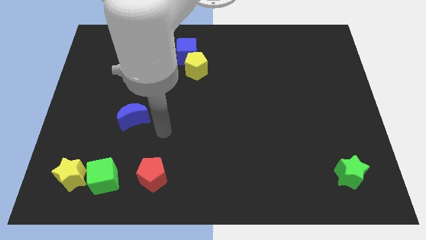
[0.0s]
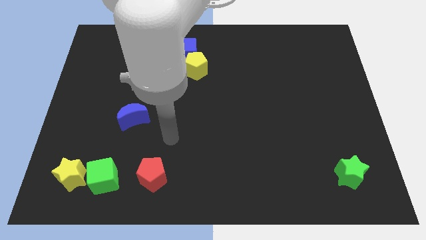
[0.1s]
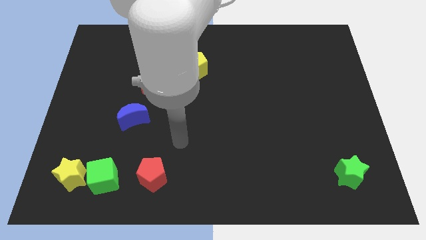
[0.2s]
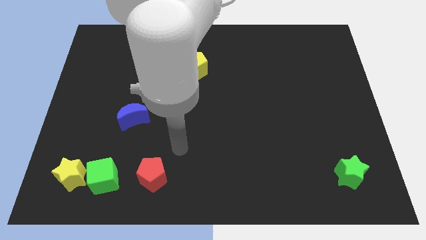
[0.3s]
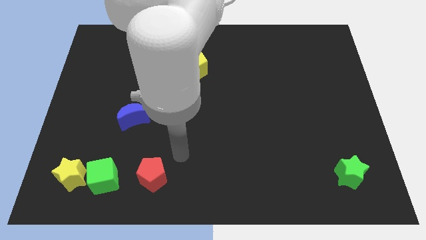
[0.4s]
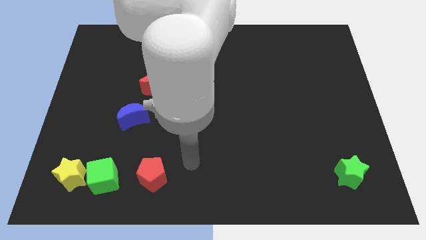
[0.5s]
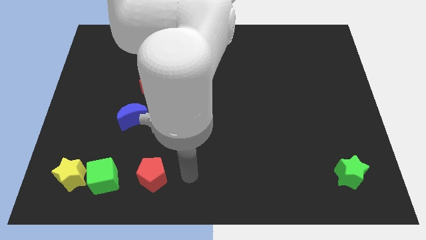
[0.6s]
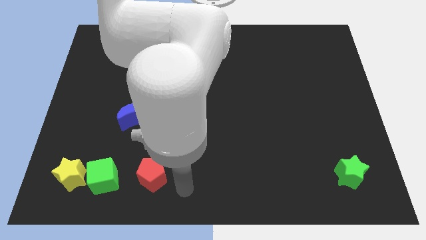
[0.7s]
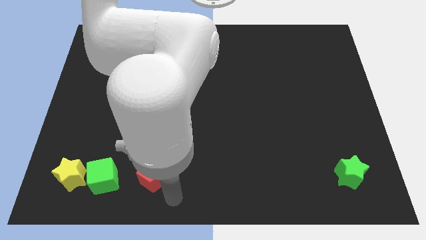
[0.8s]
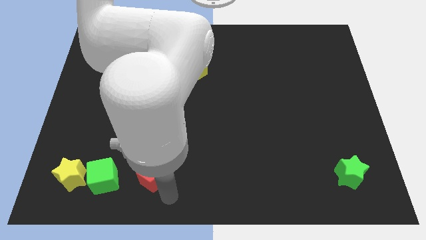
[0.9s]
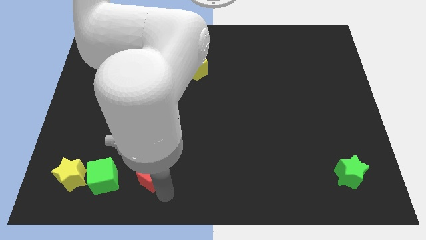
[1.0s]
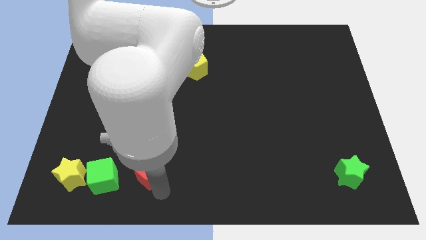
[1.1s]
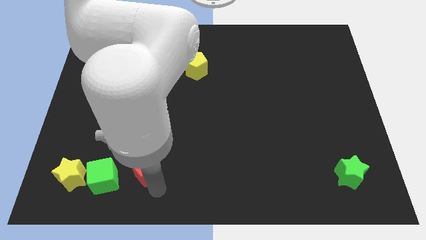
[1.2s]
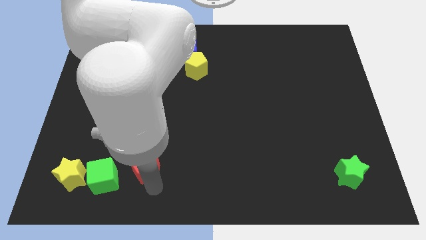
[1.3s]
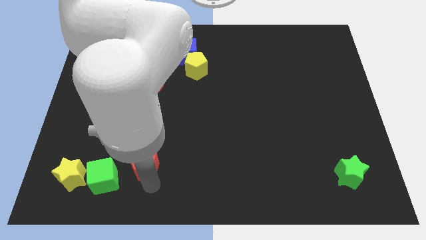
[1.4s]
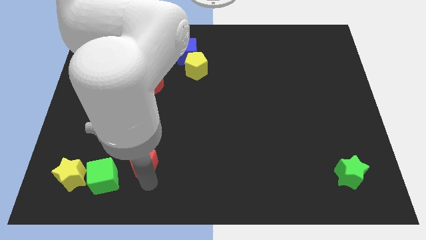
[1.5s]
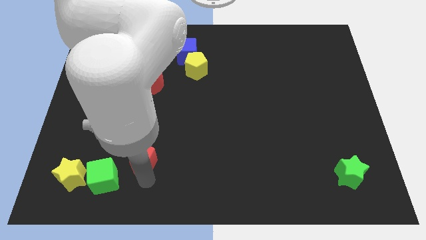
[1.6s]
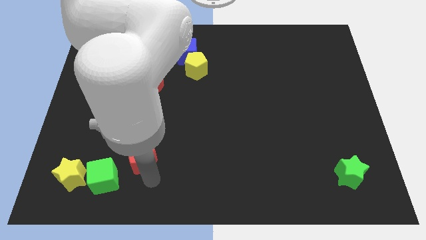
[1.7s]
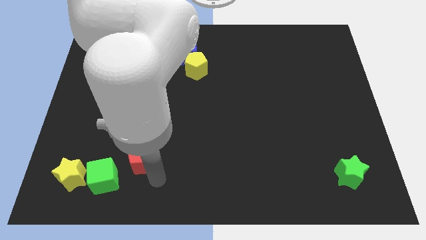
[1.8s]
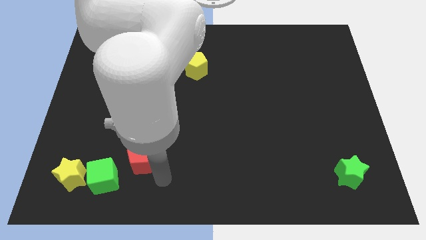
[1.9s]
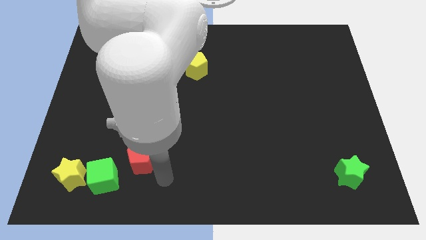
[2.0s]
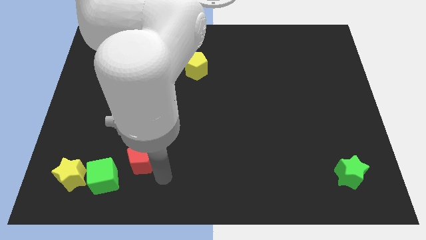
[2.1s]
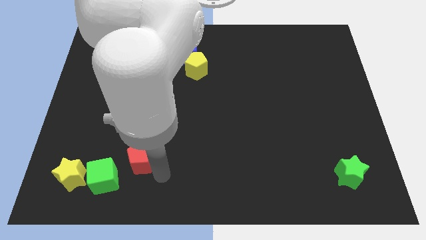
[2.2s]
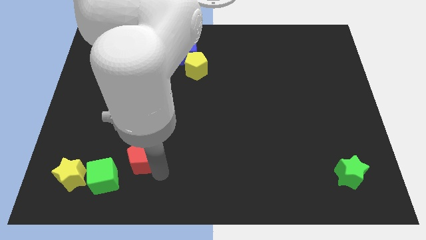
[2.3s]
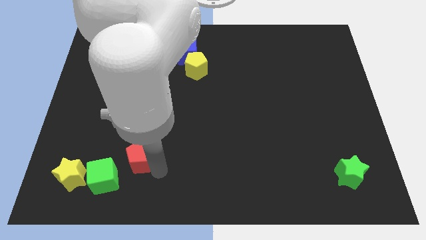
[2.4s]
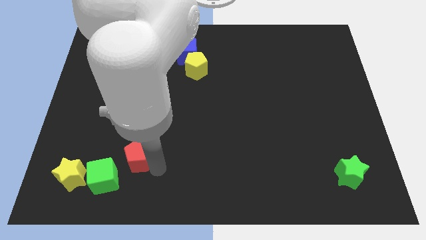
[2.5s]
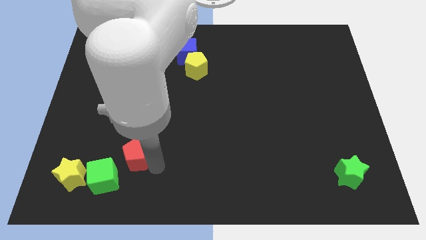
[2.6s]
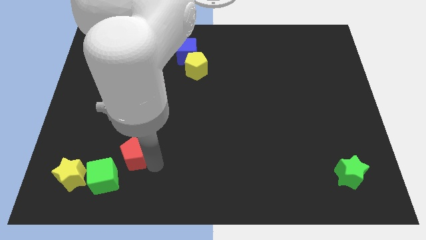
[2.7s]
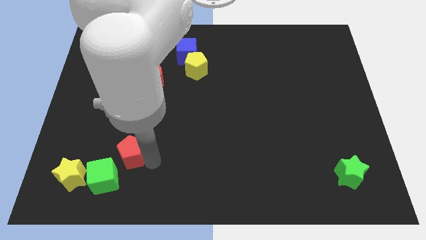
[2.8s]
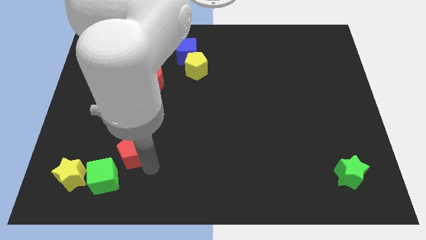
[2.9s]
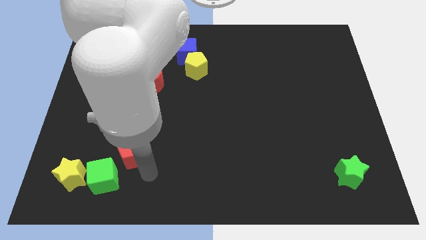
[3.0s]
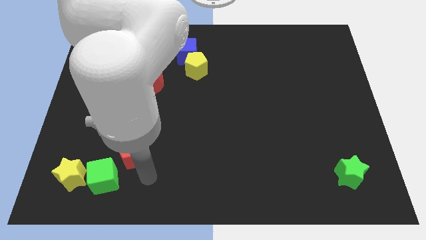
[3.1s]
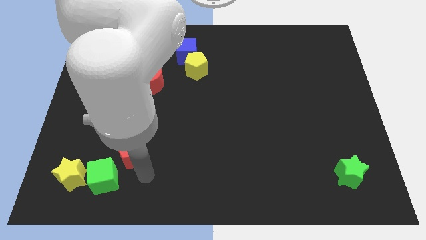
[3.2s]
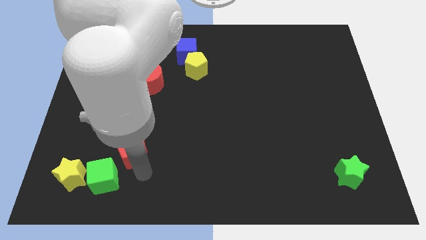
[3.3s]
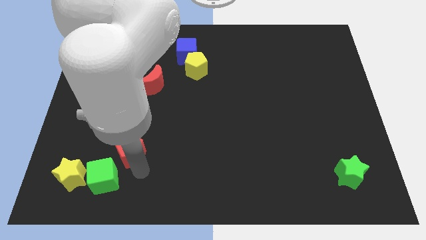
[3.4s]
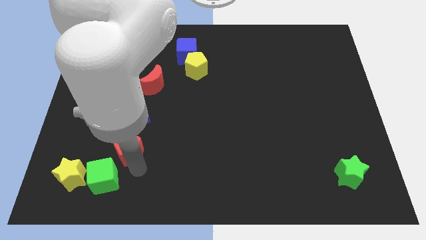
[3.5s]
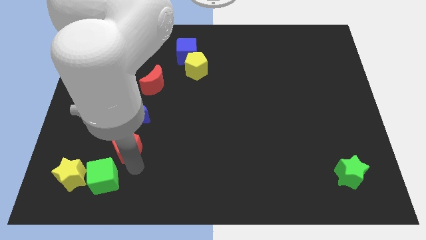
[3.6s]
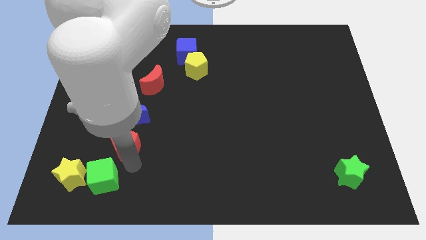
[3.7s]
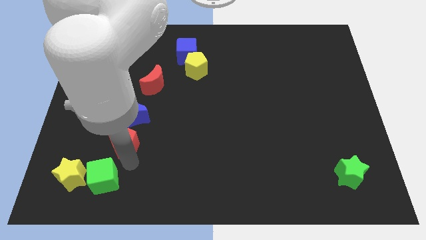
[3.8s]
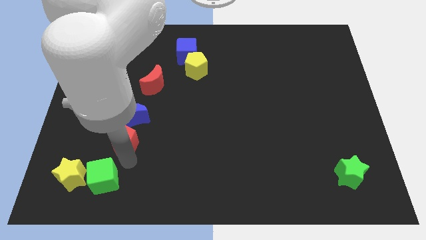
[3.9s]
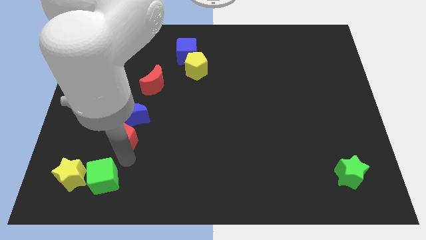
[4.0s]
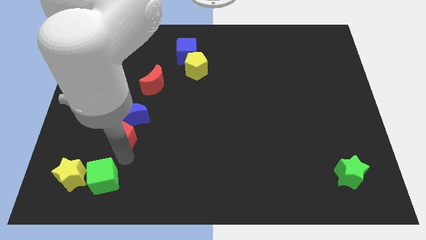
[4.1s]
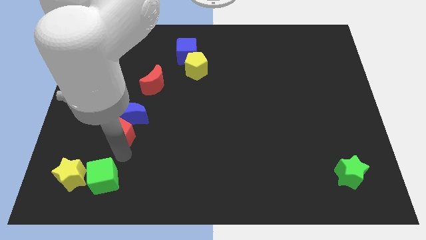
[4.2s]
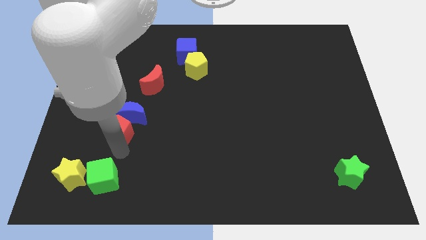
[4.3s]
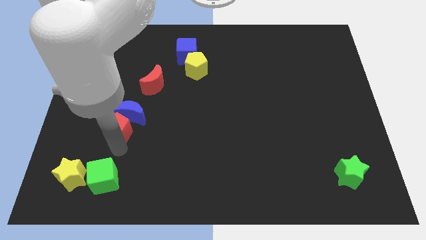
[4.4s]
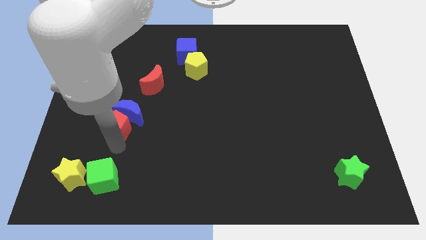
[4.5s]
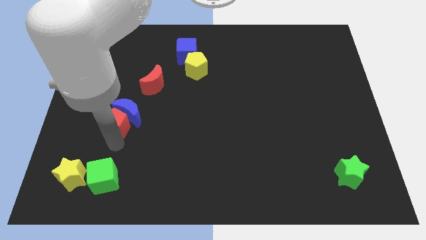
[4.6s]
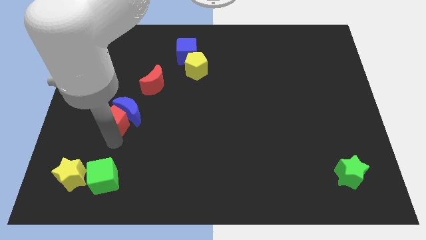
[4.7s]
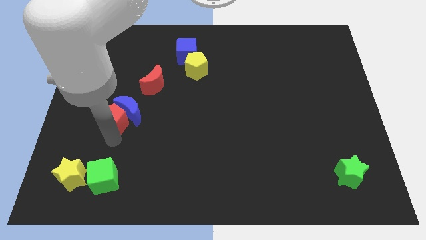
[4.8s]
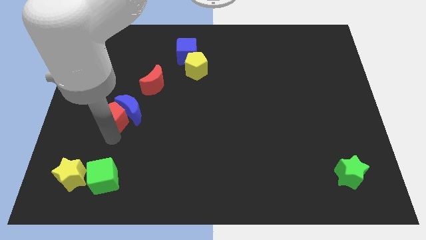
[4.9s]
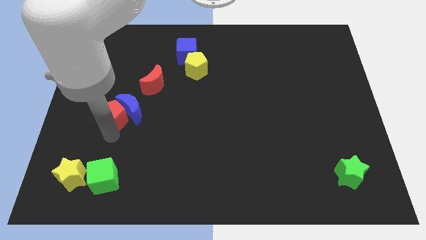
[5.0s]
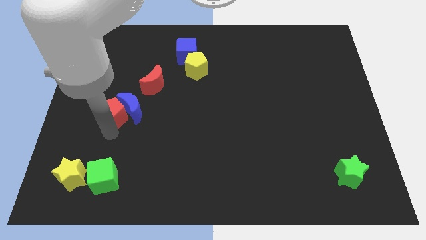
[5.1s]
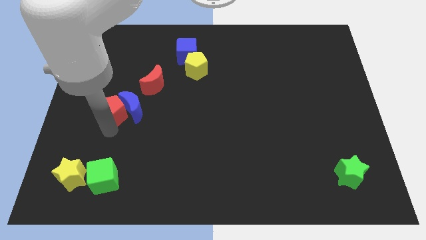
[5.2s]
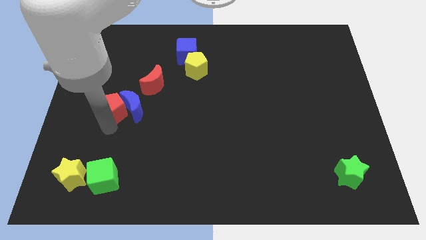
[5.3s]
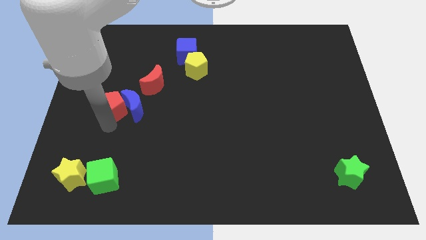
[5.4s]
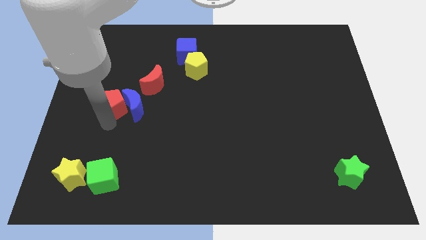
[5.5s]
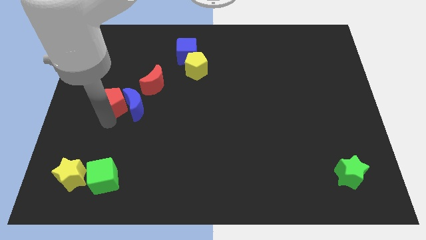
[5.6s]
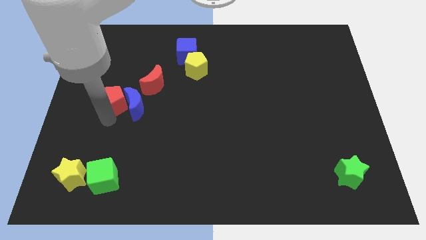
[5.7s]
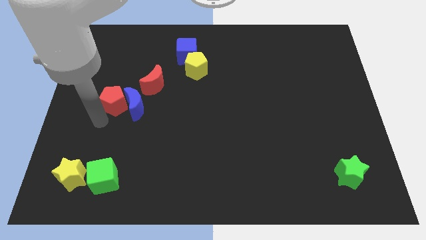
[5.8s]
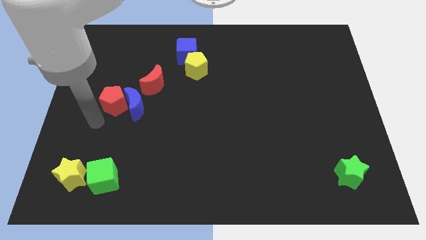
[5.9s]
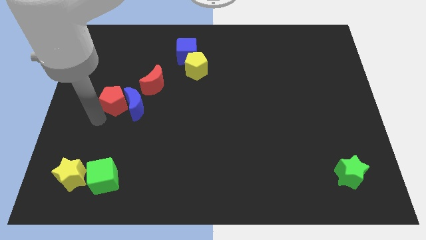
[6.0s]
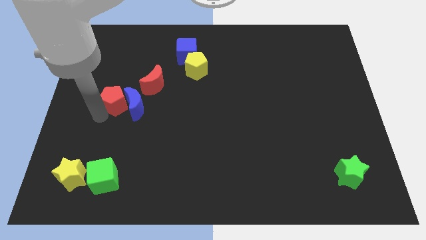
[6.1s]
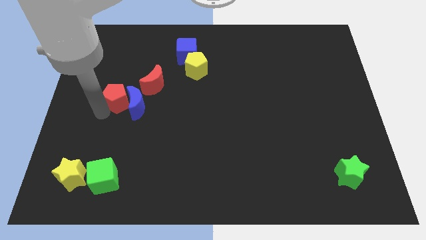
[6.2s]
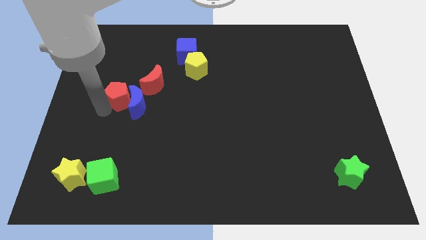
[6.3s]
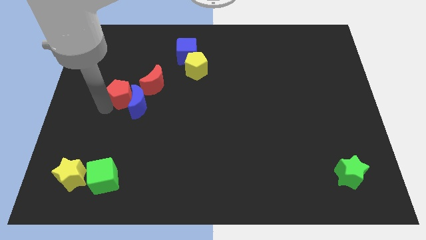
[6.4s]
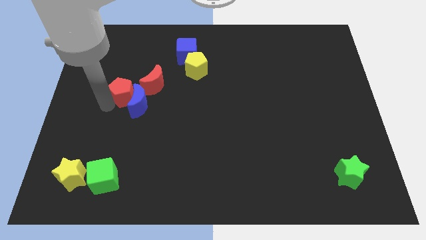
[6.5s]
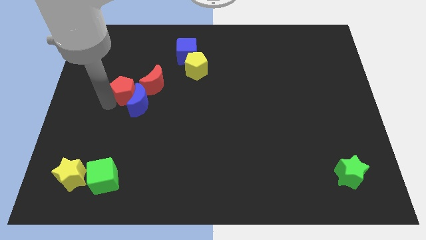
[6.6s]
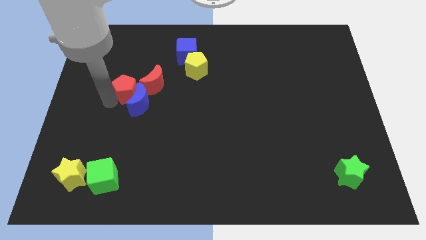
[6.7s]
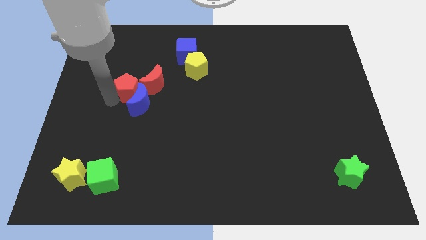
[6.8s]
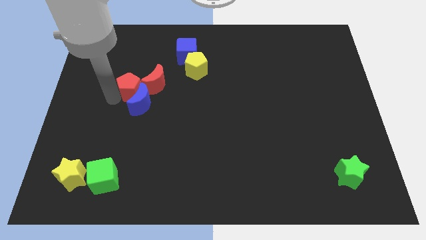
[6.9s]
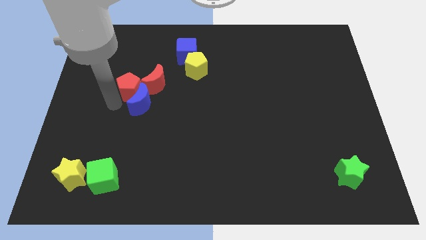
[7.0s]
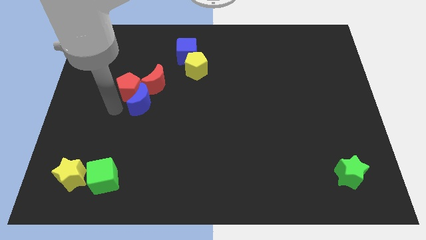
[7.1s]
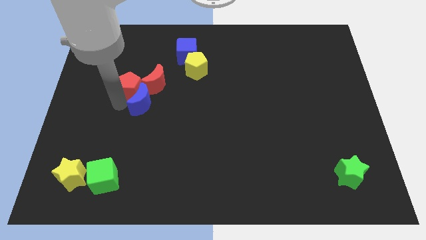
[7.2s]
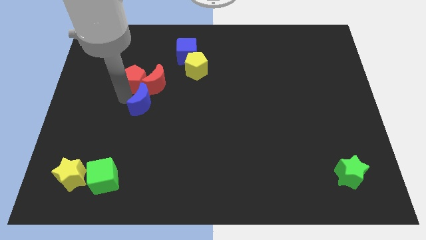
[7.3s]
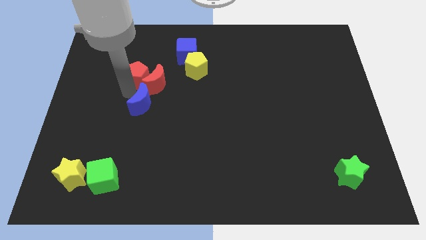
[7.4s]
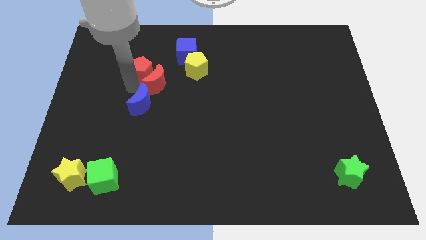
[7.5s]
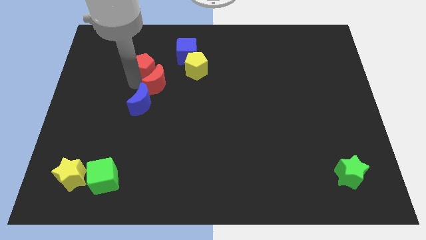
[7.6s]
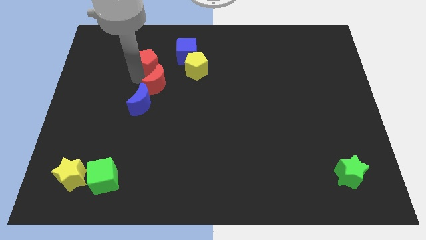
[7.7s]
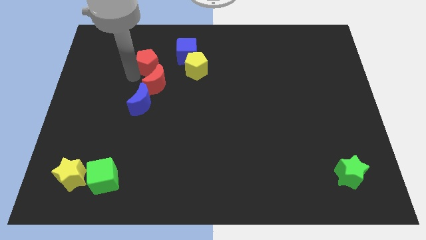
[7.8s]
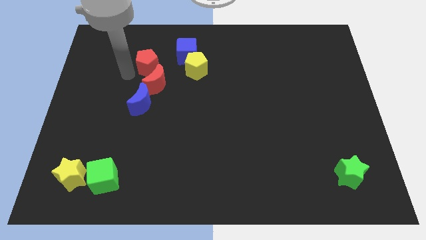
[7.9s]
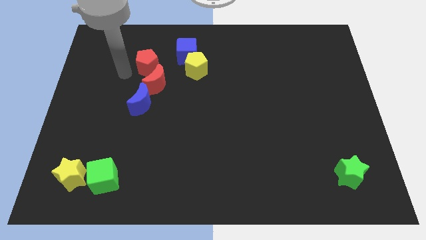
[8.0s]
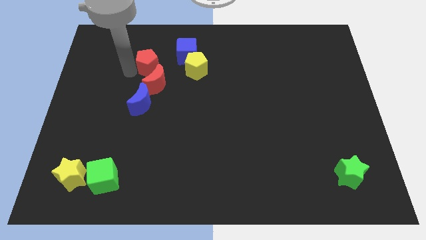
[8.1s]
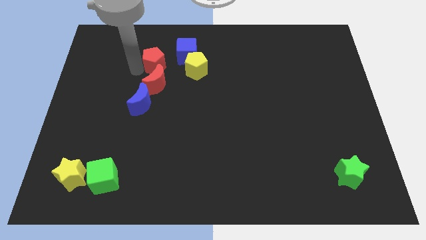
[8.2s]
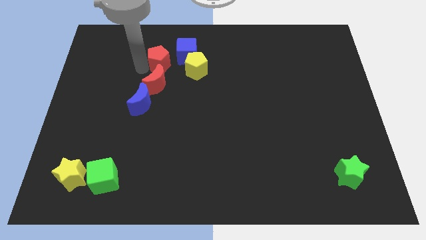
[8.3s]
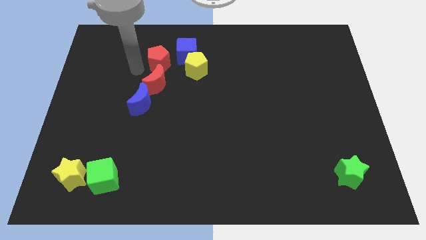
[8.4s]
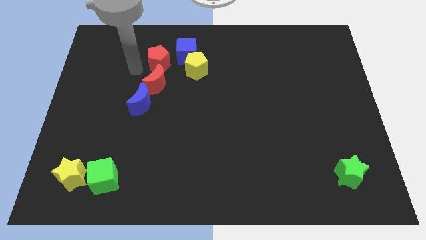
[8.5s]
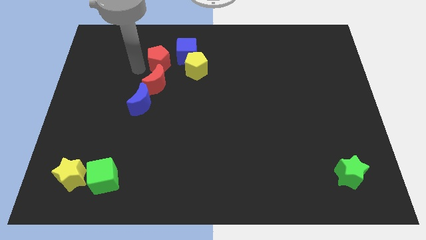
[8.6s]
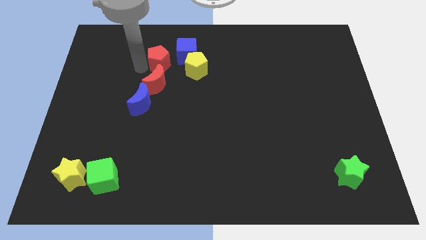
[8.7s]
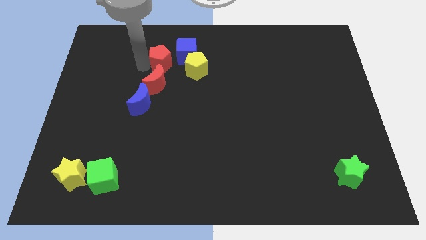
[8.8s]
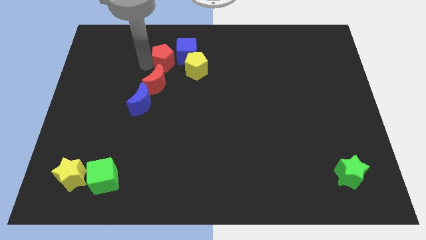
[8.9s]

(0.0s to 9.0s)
put the red pentagon towards the blue cube
